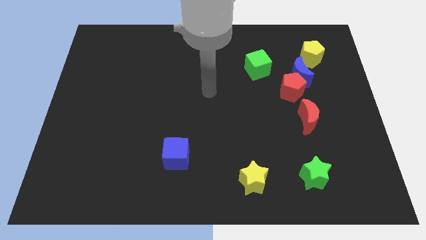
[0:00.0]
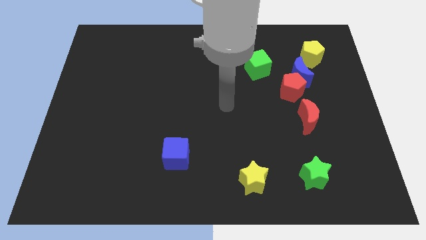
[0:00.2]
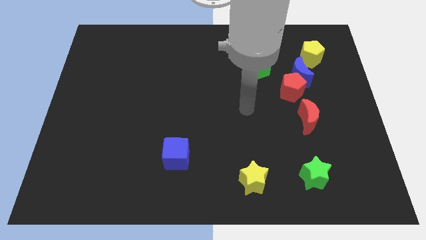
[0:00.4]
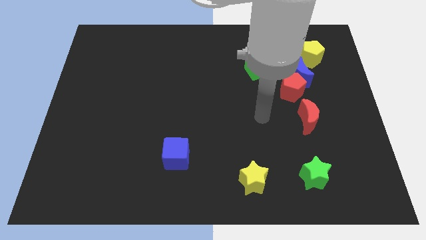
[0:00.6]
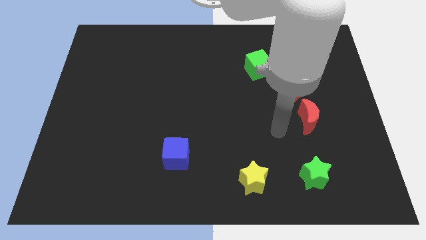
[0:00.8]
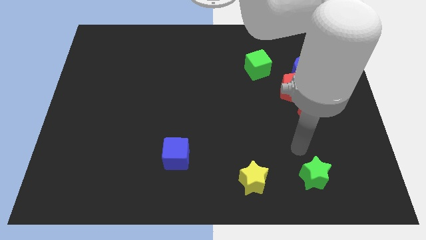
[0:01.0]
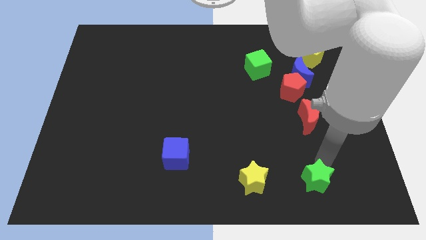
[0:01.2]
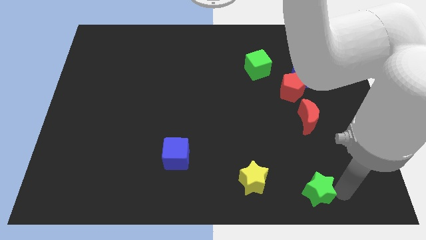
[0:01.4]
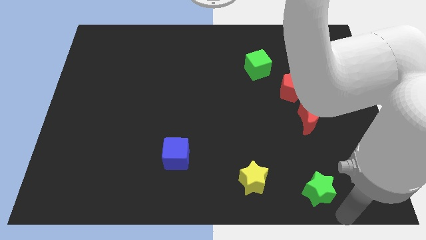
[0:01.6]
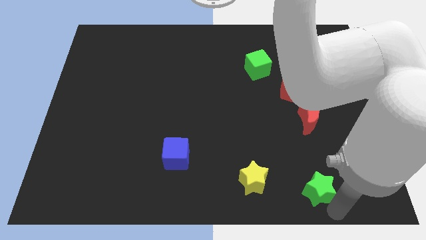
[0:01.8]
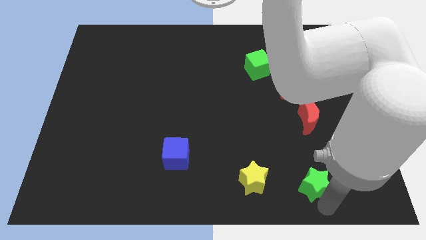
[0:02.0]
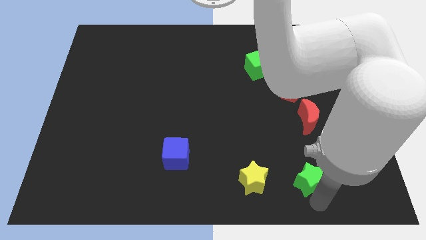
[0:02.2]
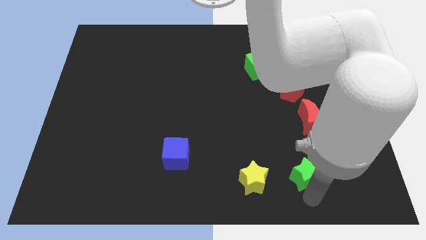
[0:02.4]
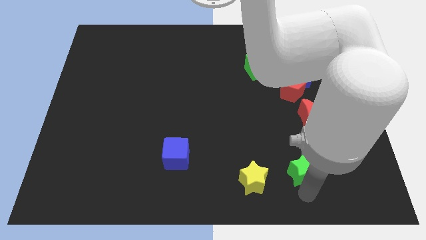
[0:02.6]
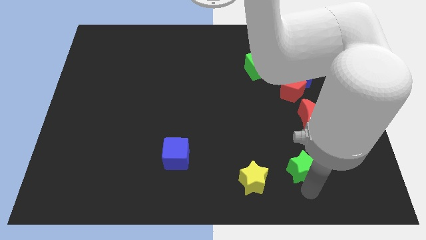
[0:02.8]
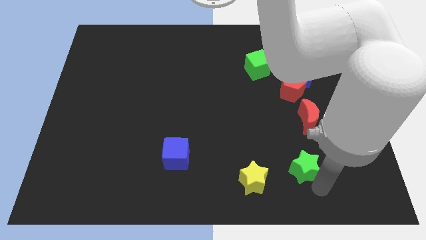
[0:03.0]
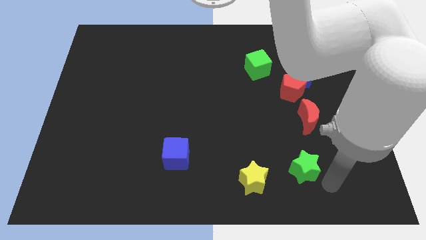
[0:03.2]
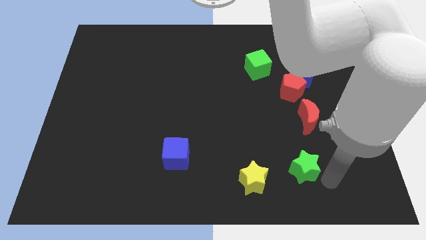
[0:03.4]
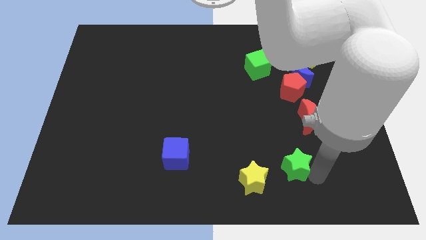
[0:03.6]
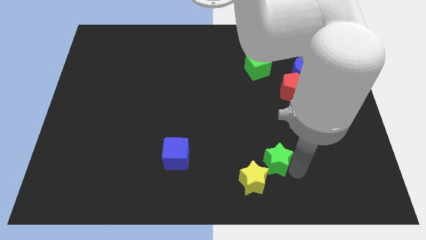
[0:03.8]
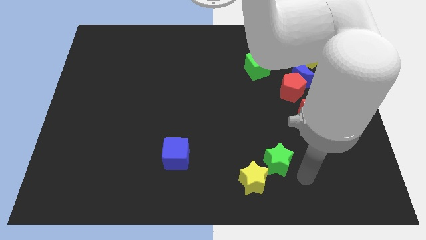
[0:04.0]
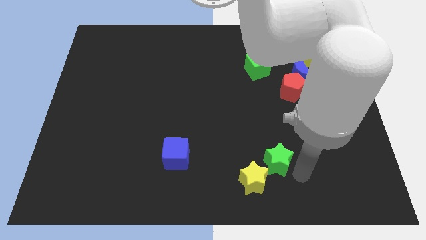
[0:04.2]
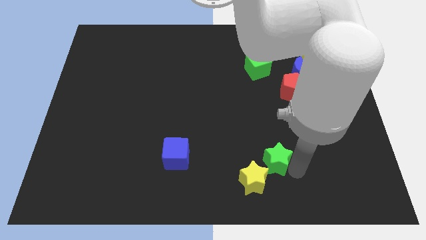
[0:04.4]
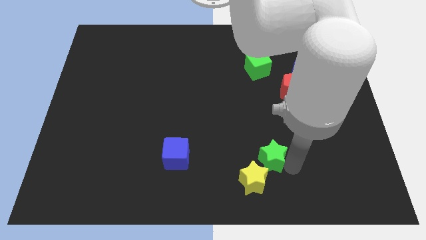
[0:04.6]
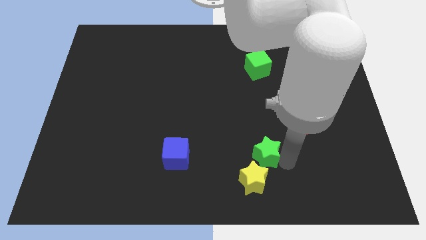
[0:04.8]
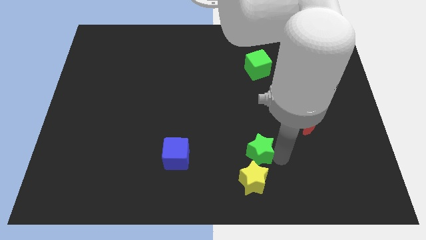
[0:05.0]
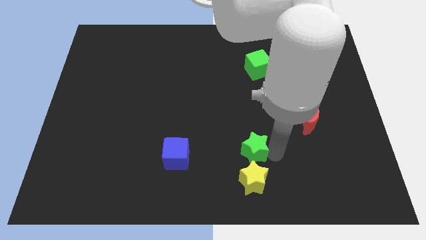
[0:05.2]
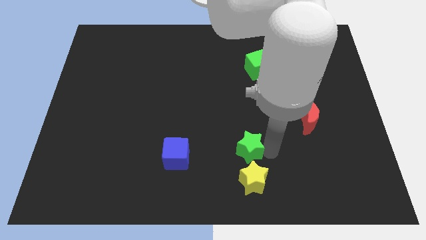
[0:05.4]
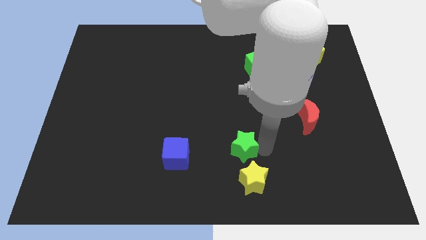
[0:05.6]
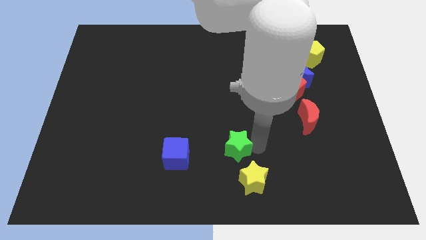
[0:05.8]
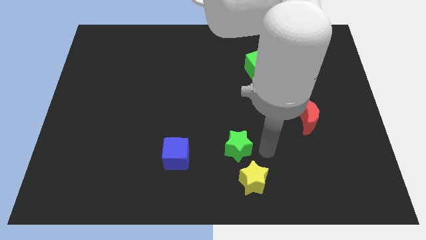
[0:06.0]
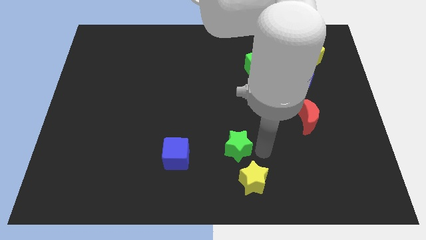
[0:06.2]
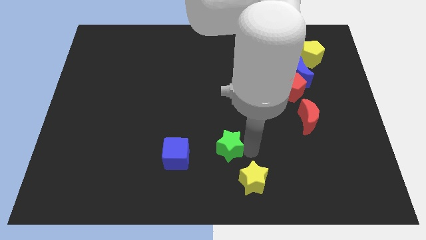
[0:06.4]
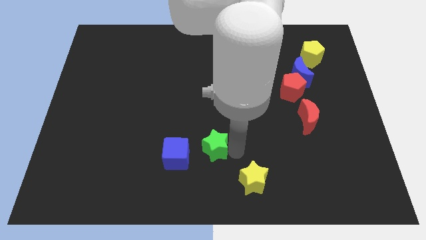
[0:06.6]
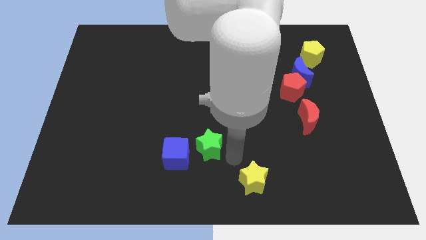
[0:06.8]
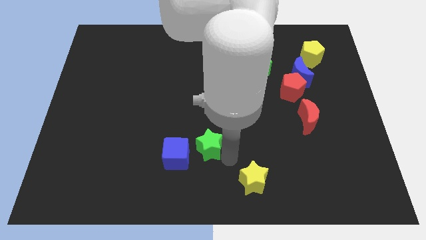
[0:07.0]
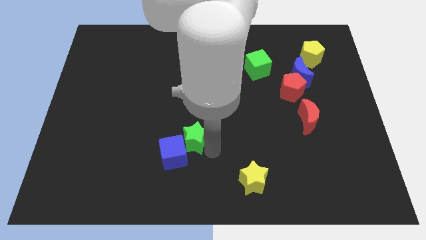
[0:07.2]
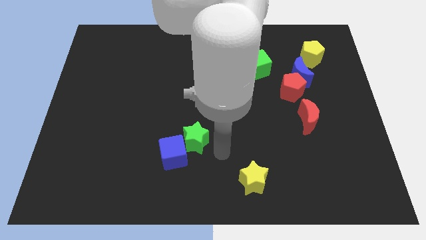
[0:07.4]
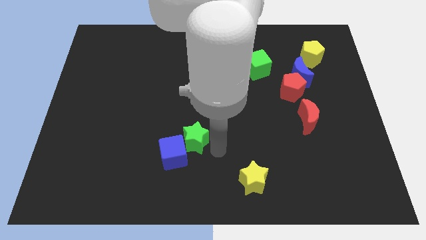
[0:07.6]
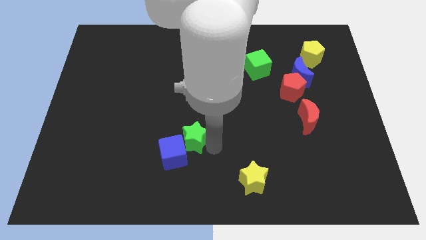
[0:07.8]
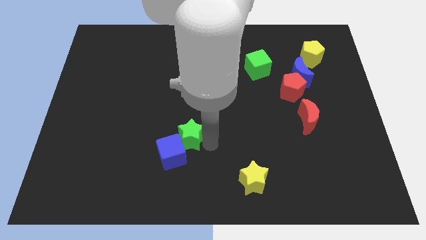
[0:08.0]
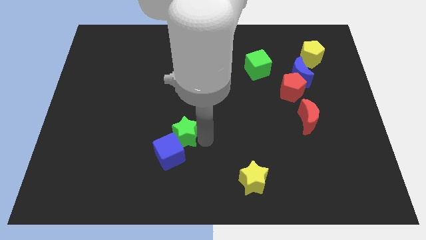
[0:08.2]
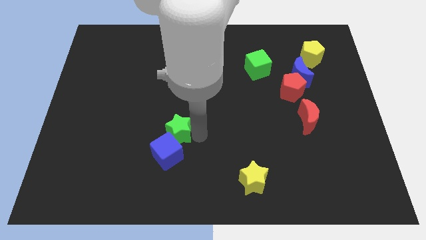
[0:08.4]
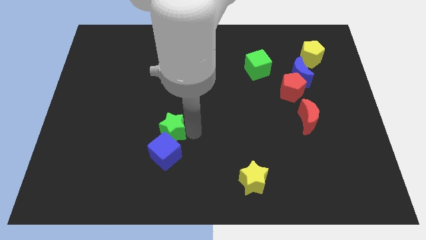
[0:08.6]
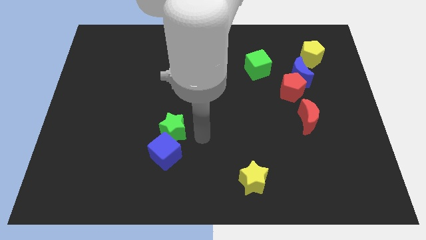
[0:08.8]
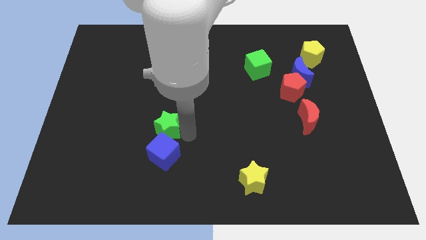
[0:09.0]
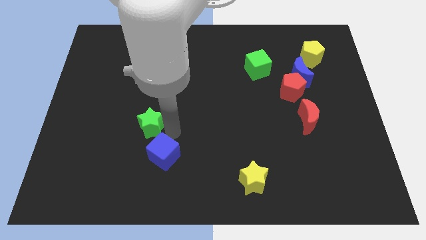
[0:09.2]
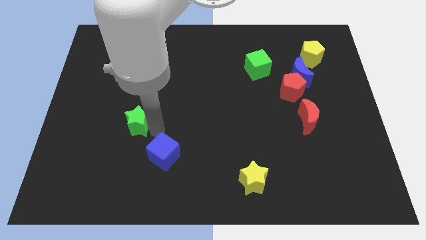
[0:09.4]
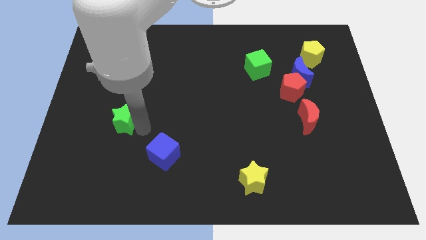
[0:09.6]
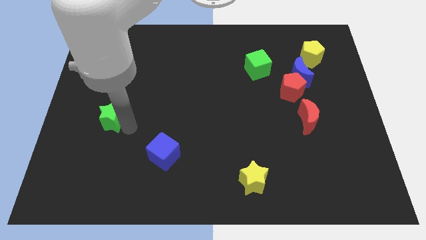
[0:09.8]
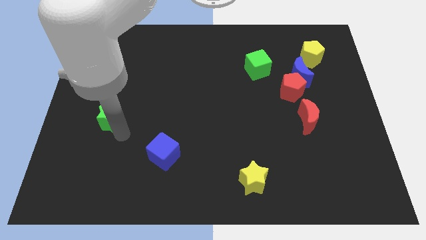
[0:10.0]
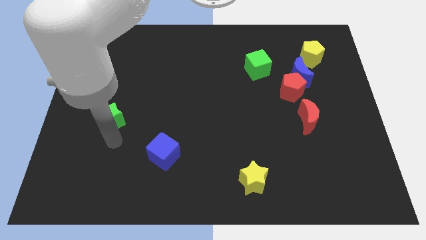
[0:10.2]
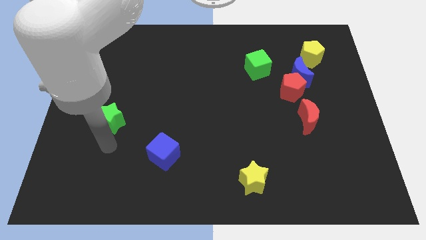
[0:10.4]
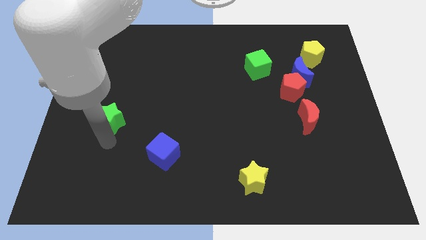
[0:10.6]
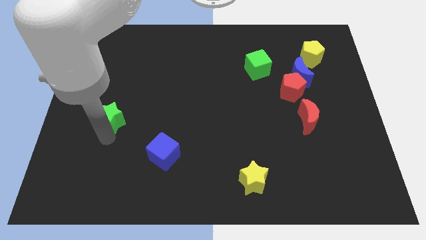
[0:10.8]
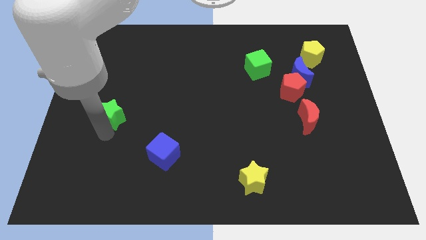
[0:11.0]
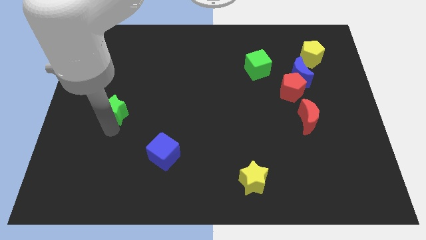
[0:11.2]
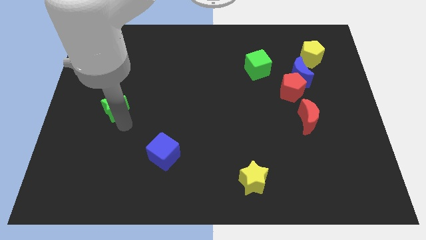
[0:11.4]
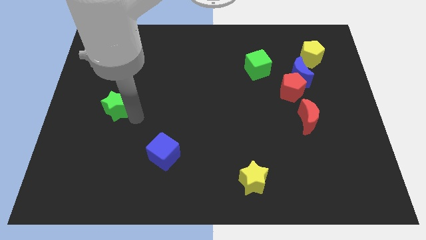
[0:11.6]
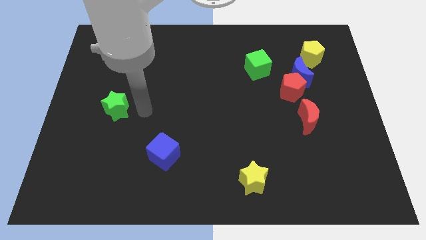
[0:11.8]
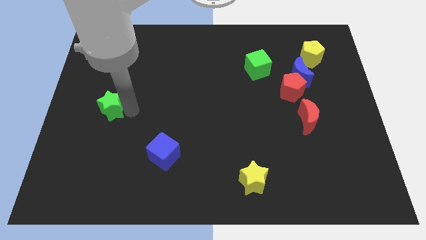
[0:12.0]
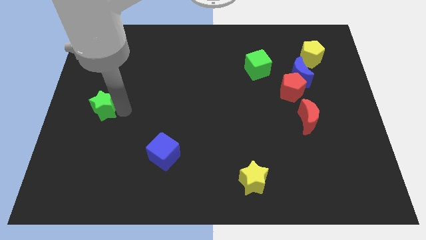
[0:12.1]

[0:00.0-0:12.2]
push the green star to the left side of the board
